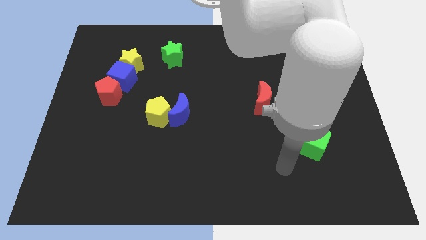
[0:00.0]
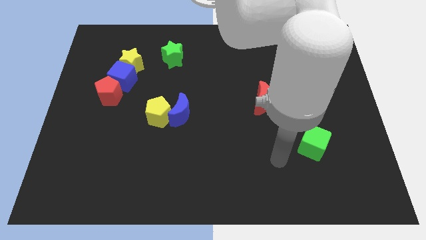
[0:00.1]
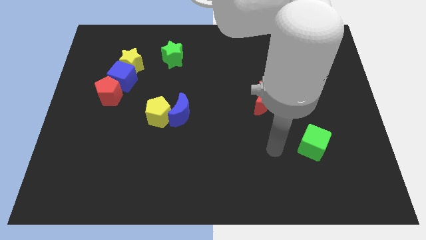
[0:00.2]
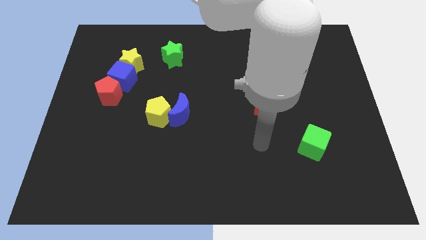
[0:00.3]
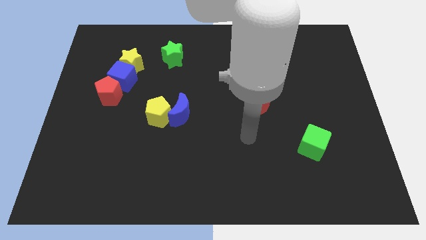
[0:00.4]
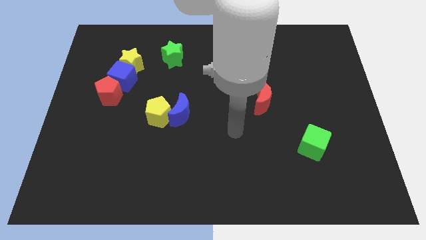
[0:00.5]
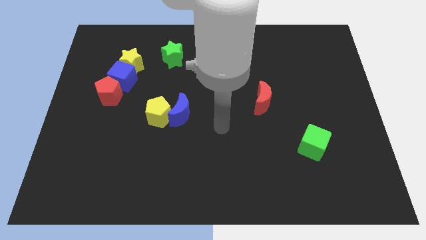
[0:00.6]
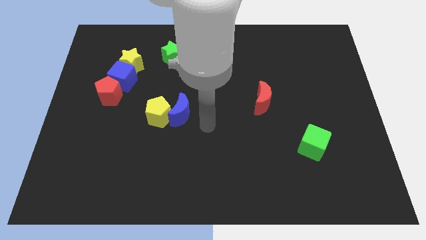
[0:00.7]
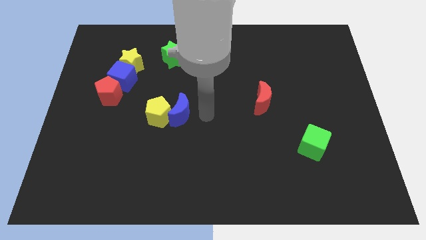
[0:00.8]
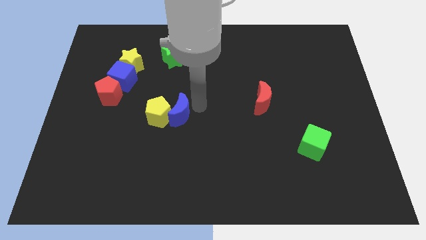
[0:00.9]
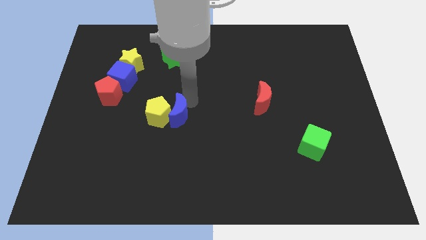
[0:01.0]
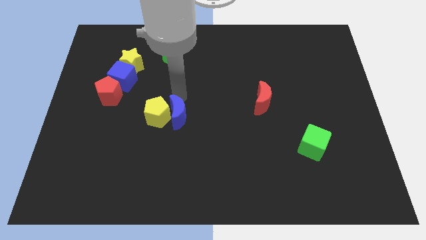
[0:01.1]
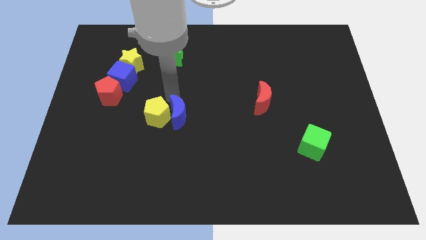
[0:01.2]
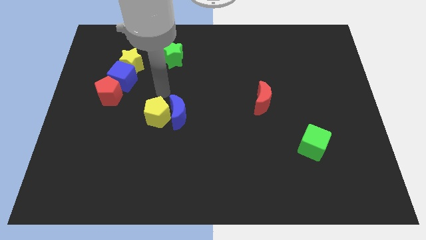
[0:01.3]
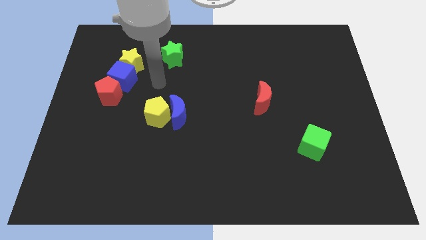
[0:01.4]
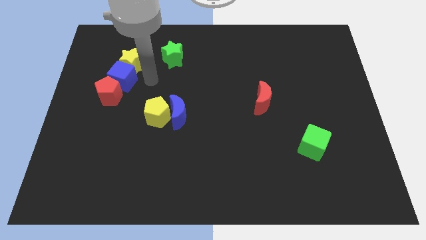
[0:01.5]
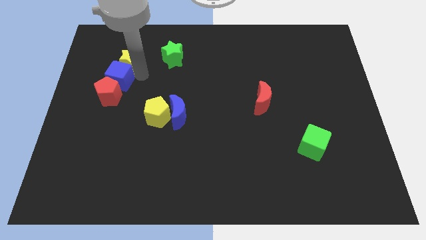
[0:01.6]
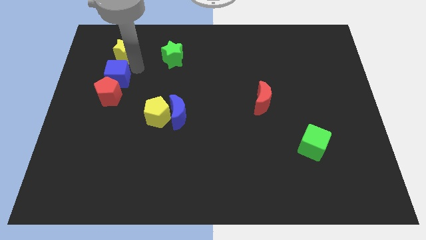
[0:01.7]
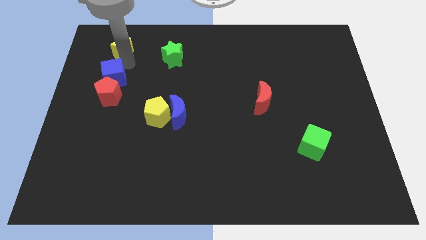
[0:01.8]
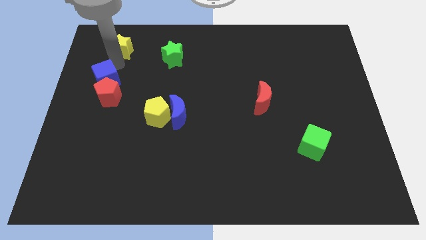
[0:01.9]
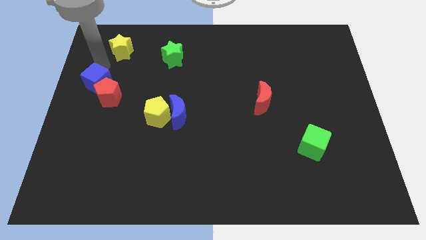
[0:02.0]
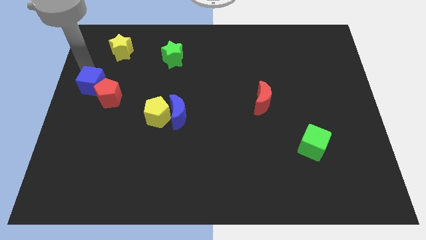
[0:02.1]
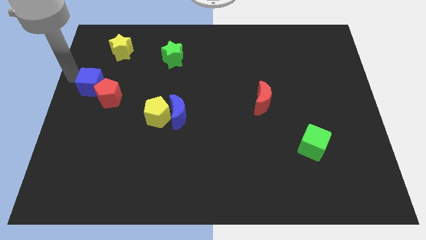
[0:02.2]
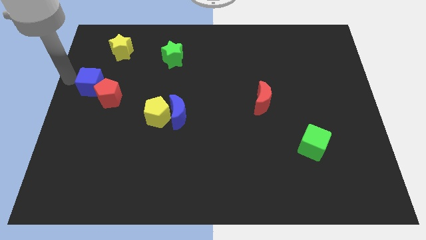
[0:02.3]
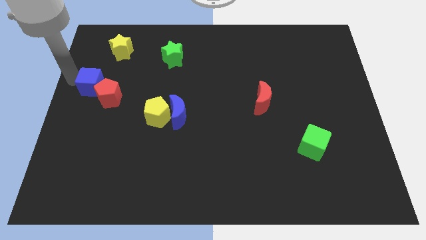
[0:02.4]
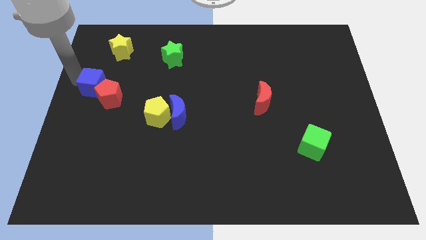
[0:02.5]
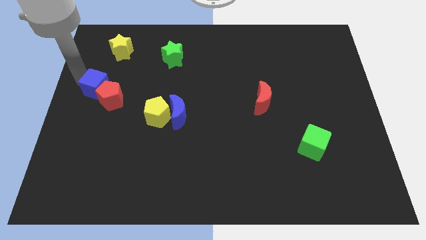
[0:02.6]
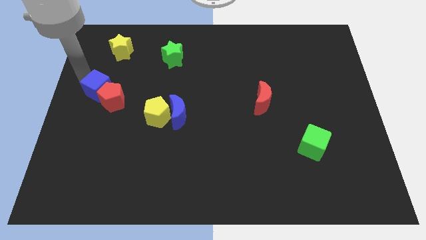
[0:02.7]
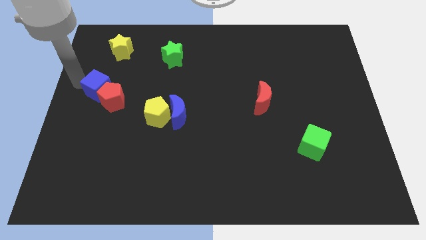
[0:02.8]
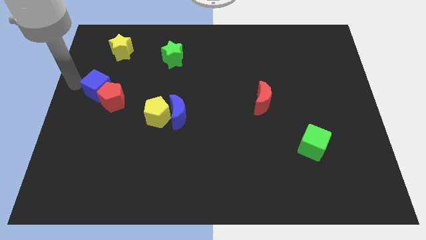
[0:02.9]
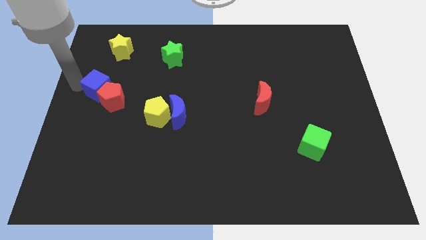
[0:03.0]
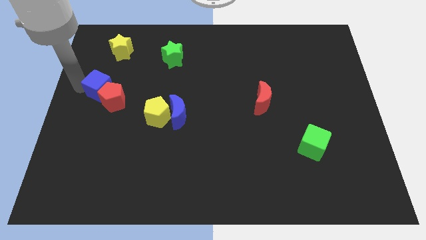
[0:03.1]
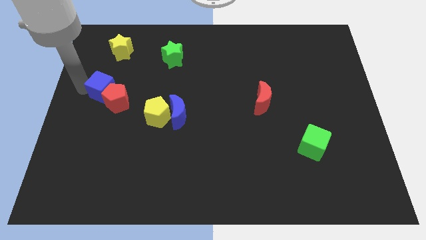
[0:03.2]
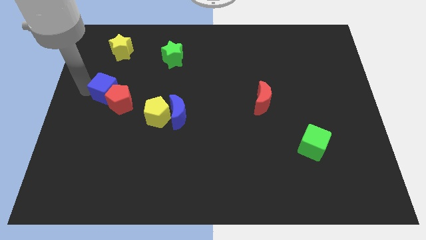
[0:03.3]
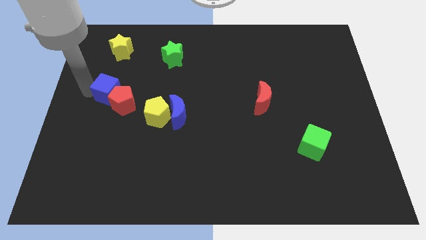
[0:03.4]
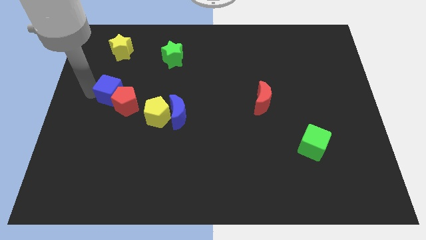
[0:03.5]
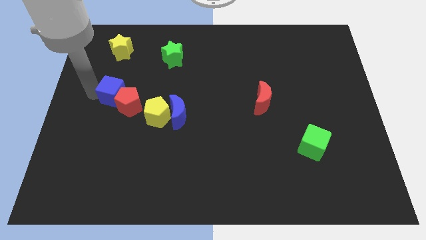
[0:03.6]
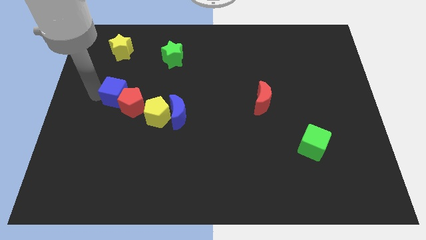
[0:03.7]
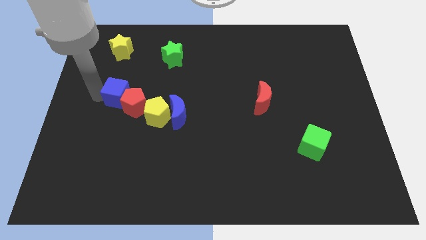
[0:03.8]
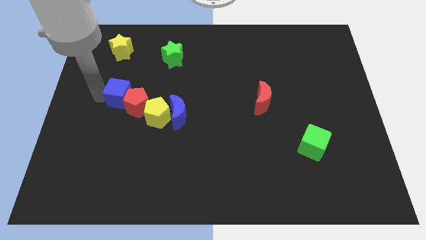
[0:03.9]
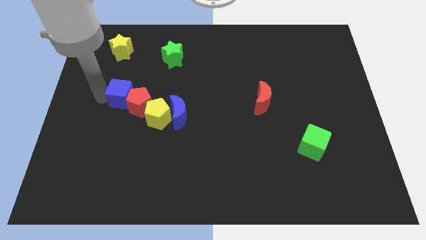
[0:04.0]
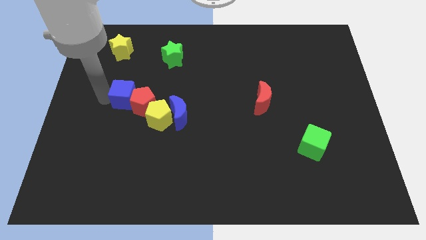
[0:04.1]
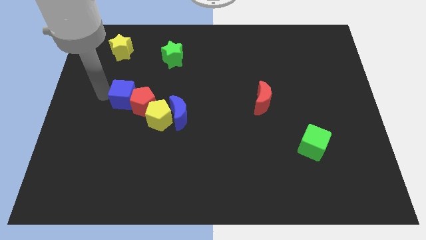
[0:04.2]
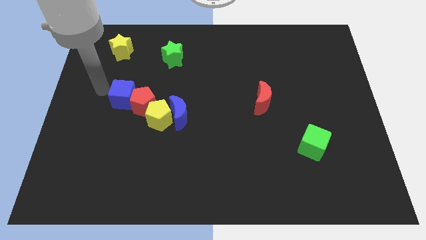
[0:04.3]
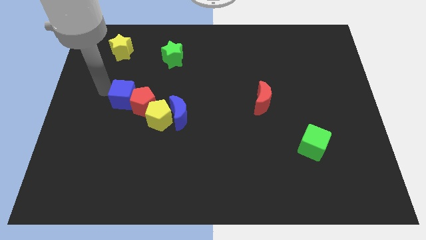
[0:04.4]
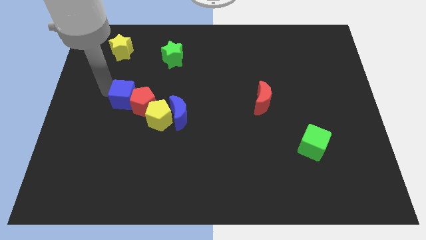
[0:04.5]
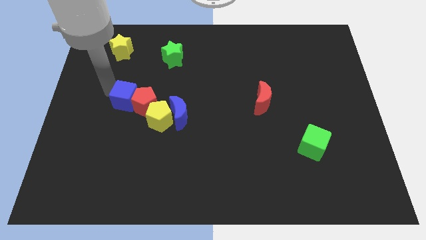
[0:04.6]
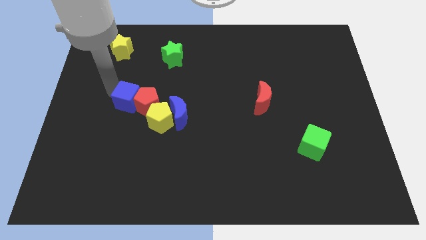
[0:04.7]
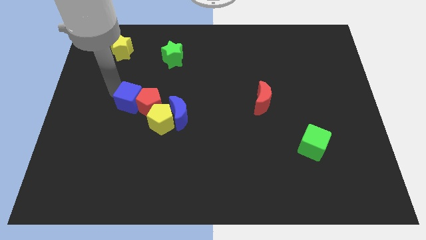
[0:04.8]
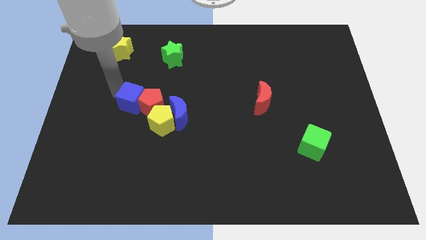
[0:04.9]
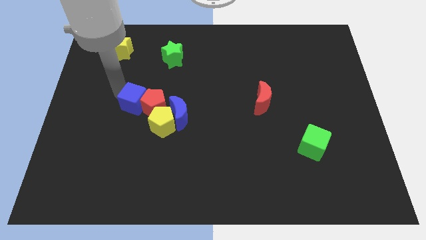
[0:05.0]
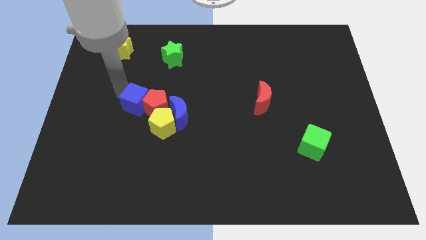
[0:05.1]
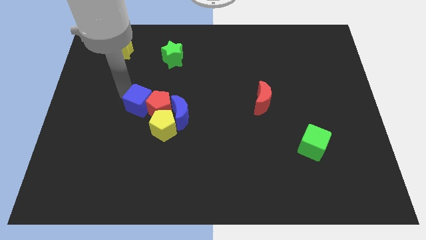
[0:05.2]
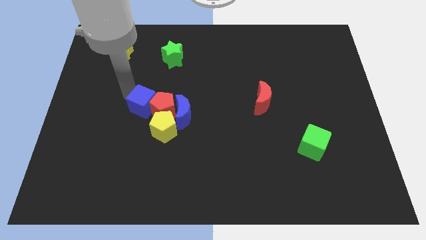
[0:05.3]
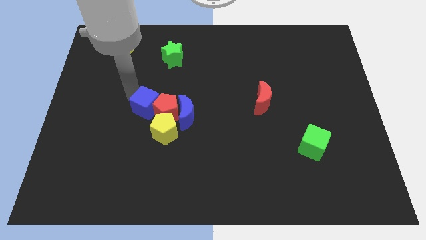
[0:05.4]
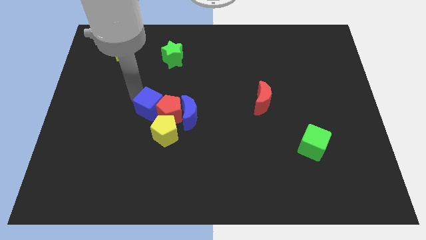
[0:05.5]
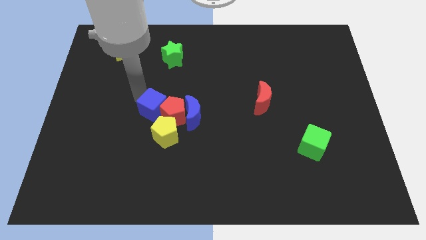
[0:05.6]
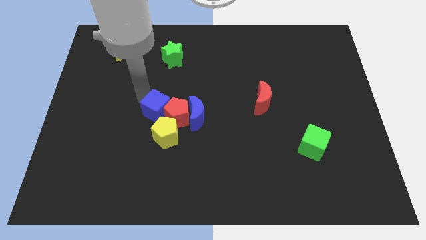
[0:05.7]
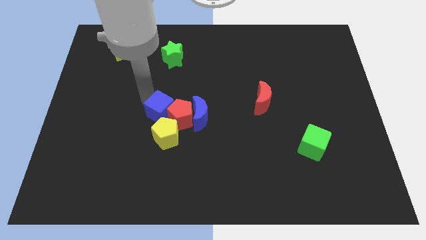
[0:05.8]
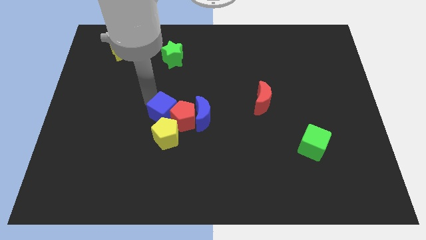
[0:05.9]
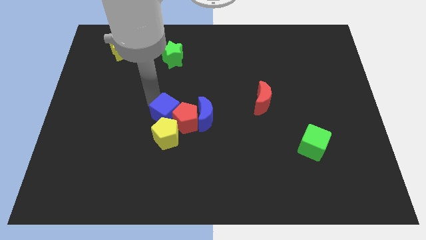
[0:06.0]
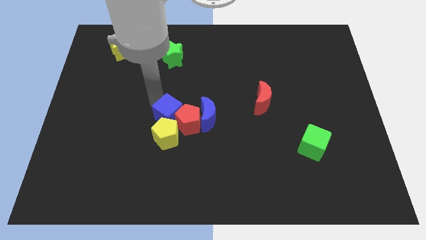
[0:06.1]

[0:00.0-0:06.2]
move the blue cube close to the yellow pentagon

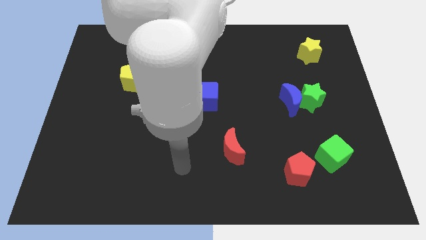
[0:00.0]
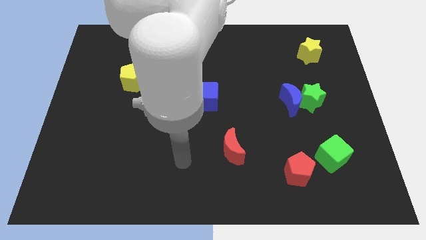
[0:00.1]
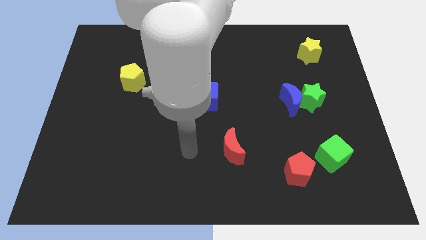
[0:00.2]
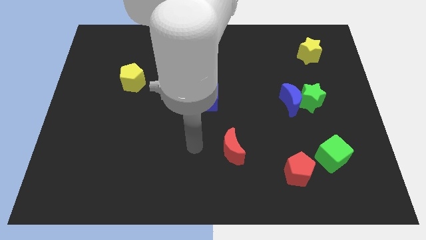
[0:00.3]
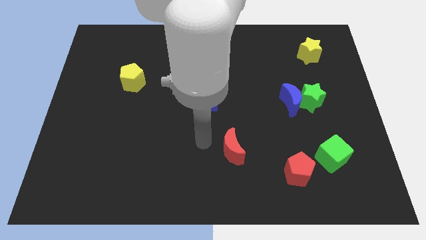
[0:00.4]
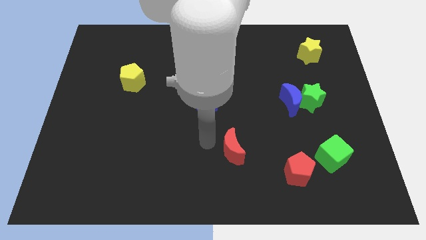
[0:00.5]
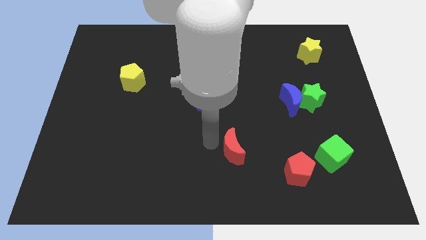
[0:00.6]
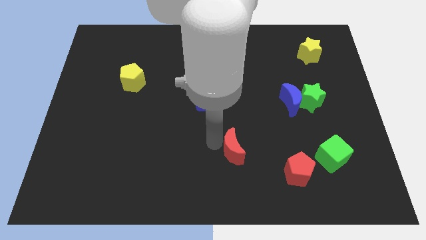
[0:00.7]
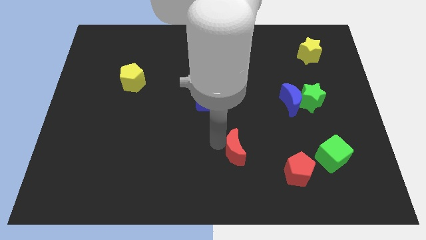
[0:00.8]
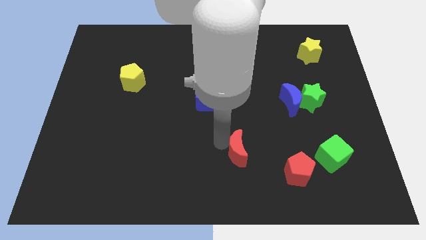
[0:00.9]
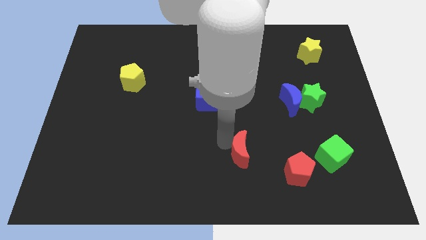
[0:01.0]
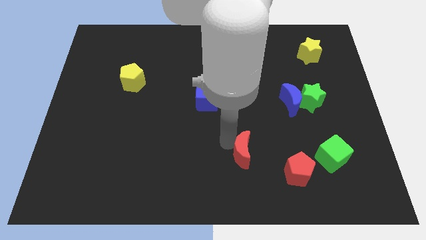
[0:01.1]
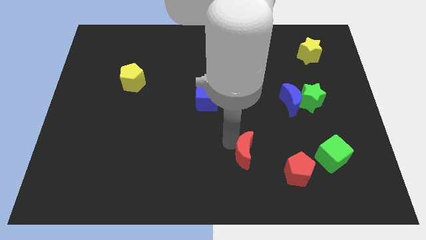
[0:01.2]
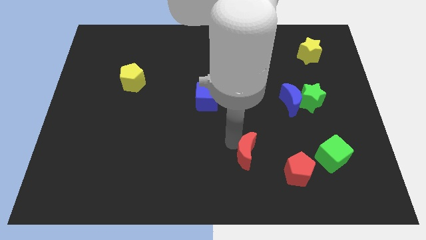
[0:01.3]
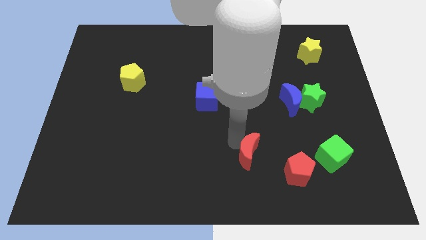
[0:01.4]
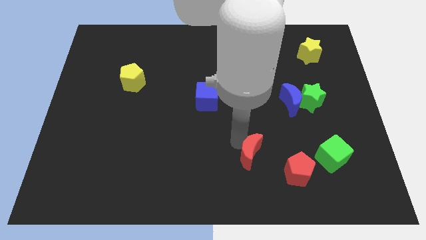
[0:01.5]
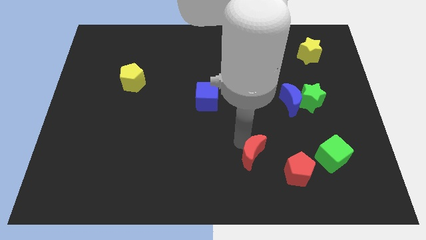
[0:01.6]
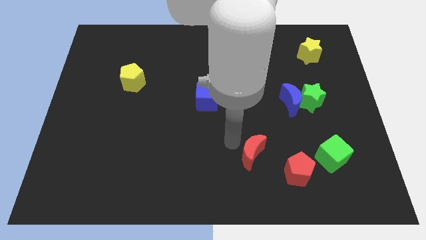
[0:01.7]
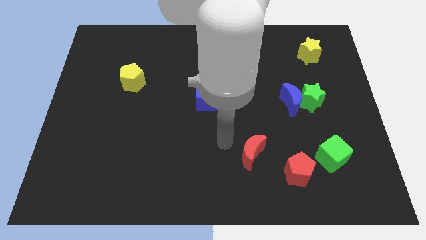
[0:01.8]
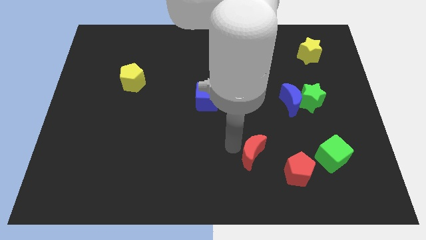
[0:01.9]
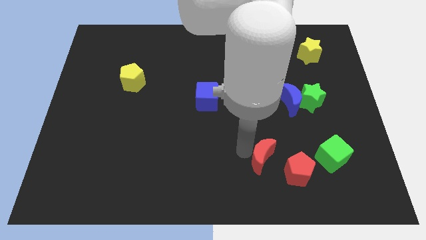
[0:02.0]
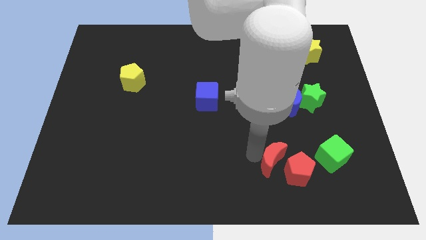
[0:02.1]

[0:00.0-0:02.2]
put the red moon close to the red pentagon
